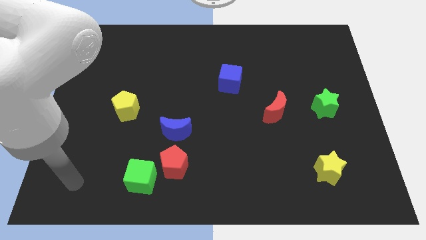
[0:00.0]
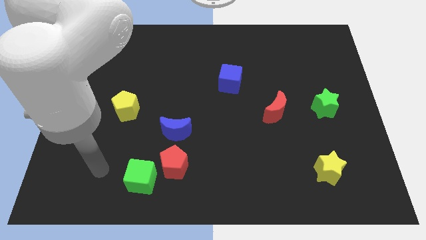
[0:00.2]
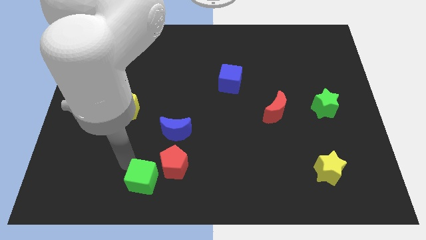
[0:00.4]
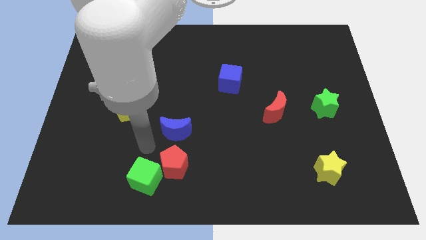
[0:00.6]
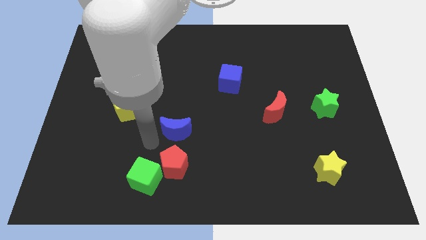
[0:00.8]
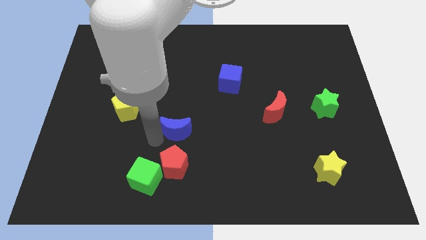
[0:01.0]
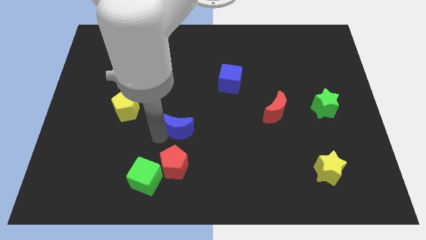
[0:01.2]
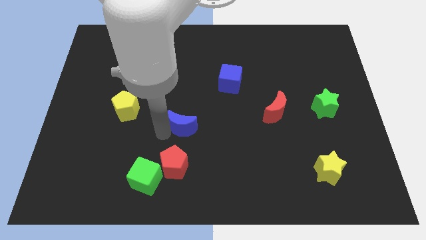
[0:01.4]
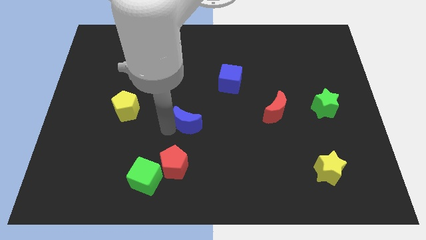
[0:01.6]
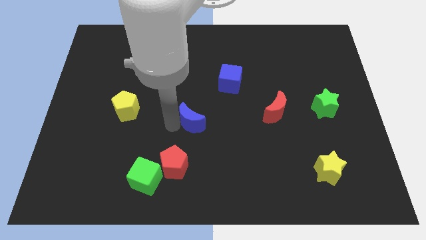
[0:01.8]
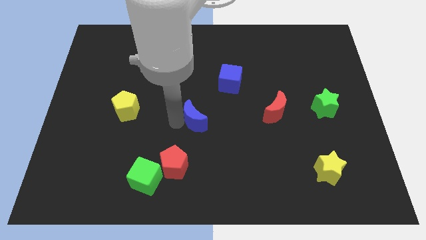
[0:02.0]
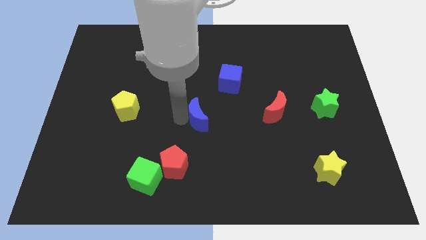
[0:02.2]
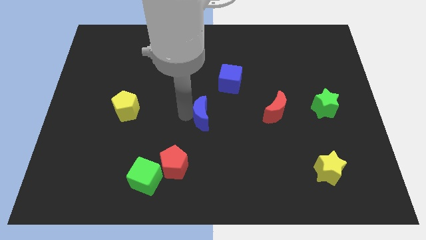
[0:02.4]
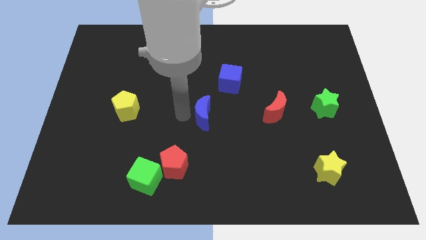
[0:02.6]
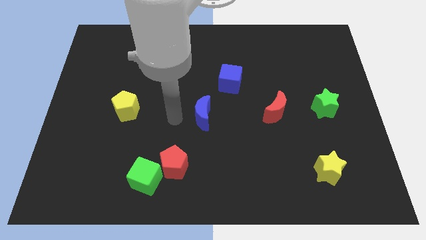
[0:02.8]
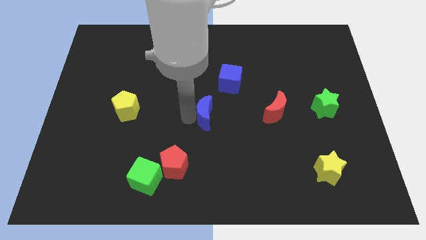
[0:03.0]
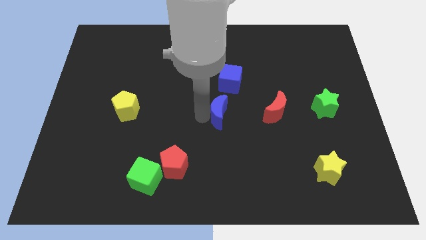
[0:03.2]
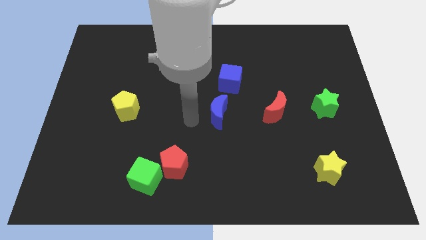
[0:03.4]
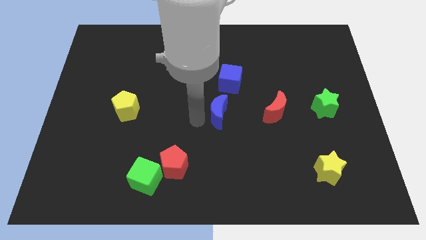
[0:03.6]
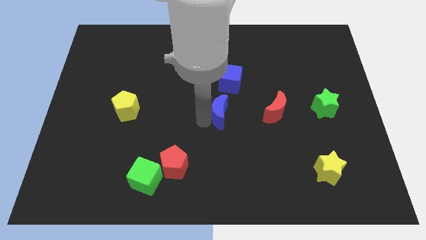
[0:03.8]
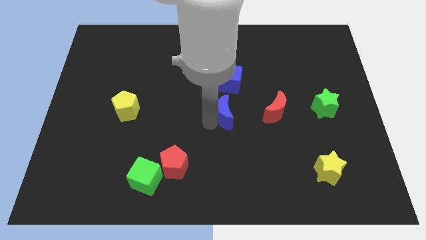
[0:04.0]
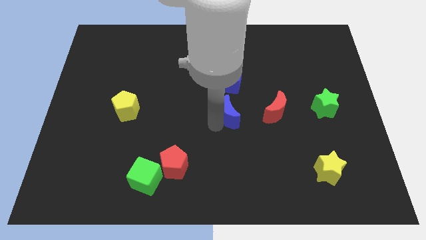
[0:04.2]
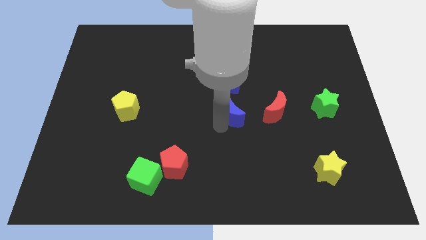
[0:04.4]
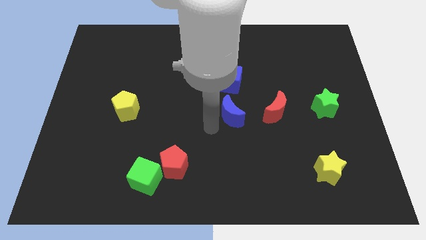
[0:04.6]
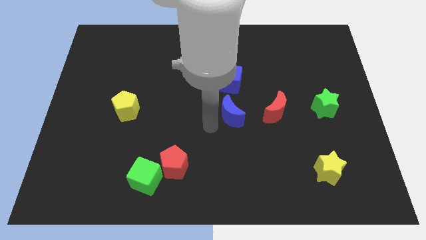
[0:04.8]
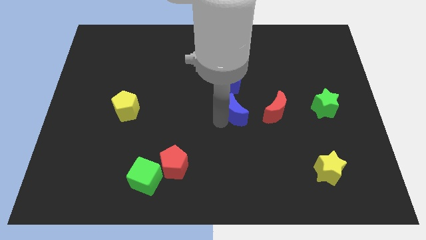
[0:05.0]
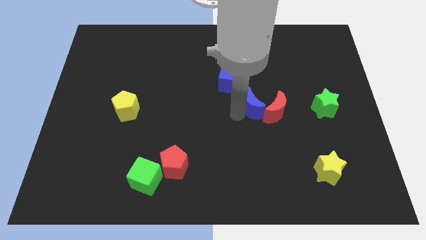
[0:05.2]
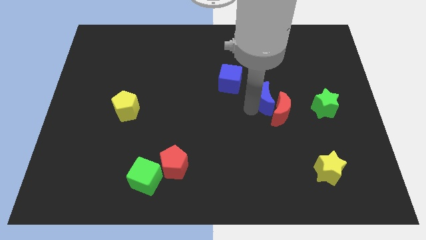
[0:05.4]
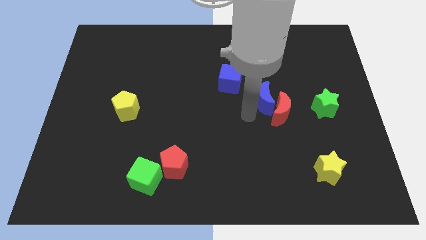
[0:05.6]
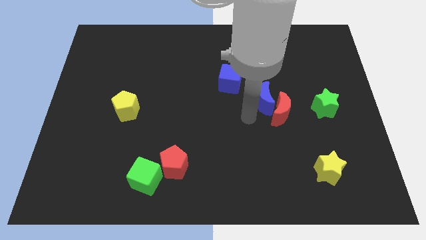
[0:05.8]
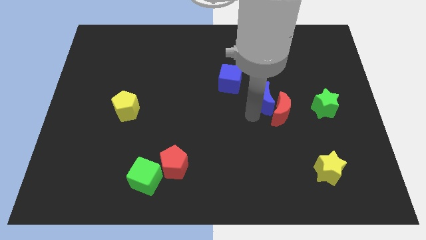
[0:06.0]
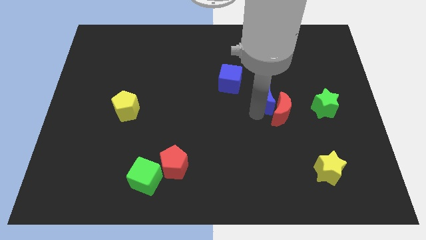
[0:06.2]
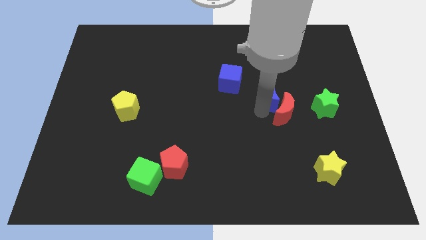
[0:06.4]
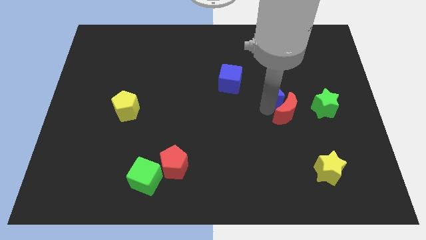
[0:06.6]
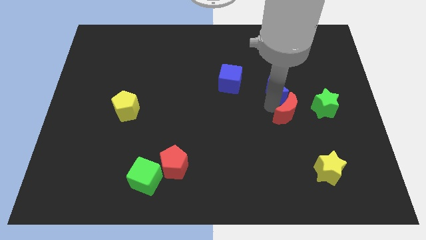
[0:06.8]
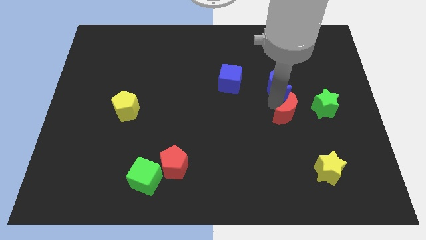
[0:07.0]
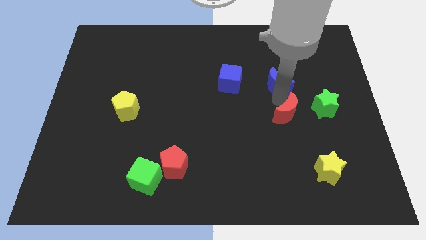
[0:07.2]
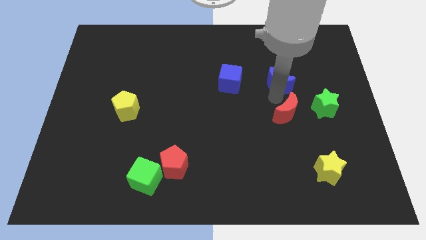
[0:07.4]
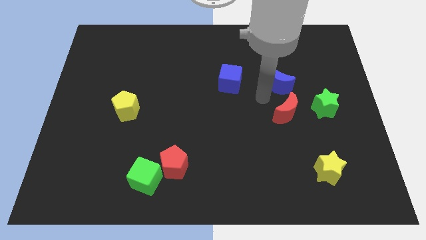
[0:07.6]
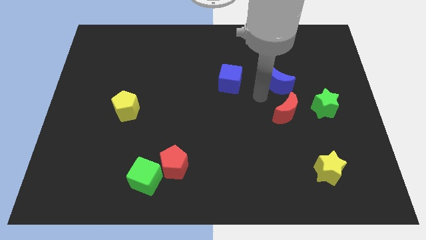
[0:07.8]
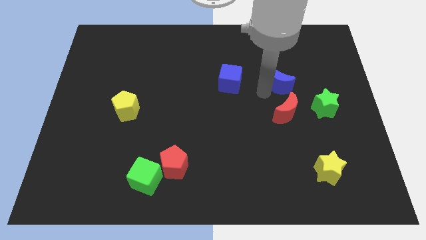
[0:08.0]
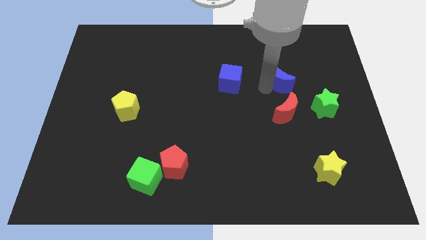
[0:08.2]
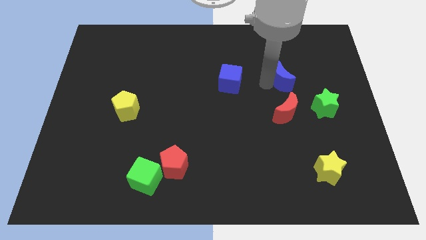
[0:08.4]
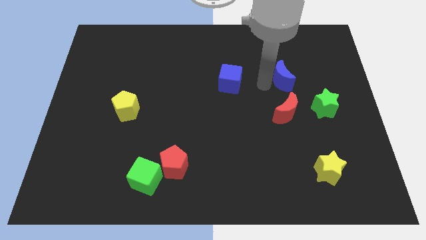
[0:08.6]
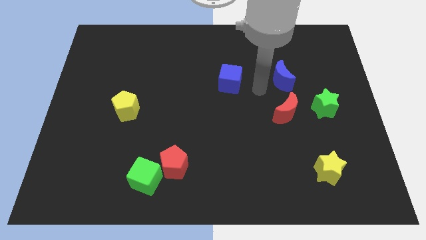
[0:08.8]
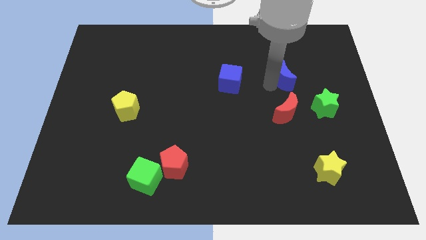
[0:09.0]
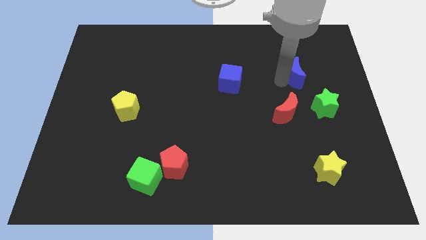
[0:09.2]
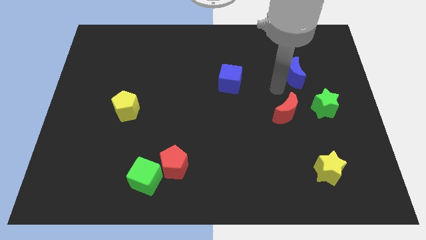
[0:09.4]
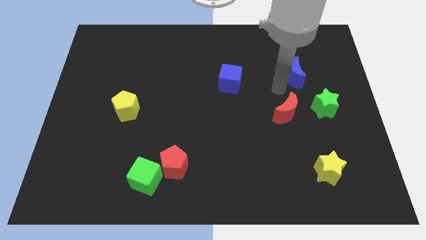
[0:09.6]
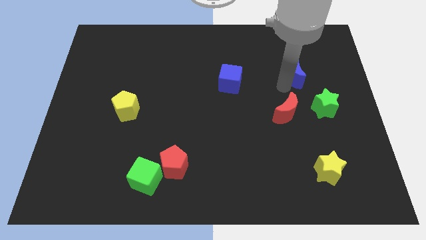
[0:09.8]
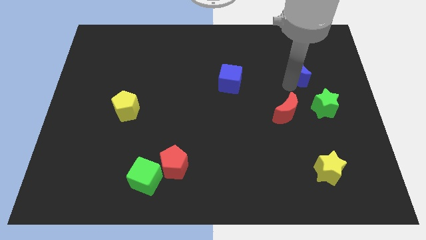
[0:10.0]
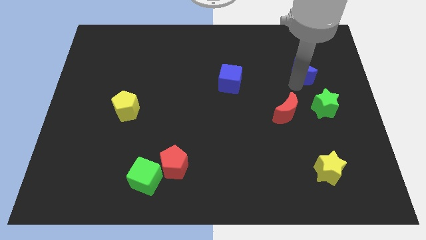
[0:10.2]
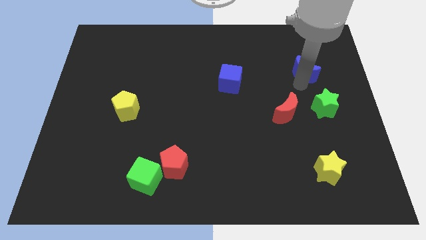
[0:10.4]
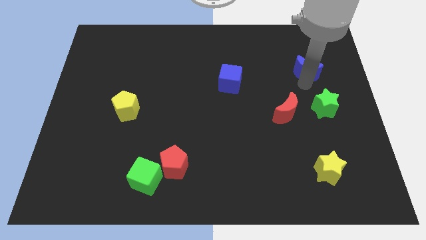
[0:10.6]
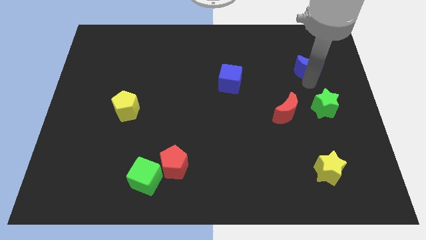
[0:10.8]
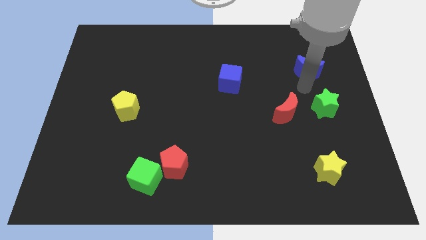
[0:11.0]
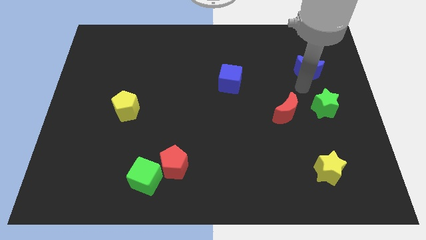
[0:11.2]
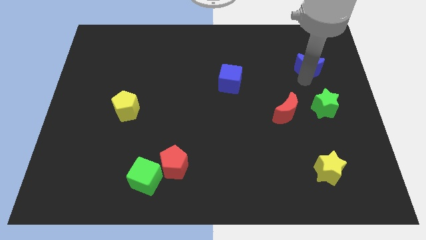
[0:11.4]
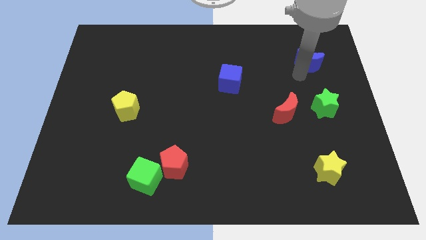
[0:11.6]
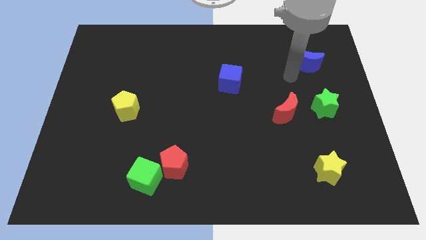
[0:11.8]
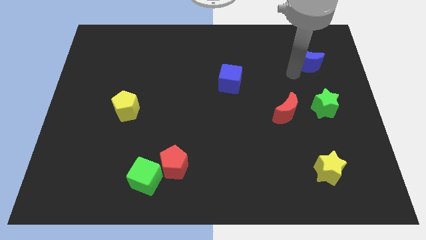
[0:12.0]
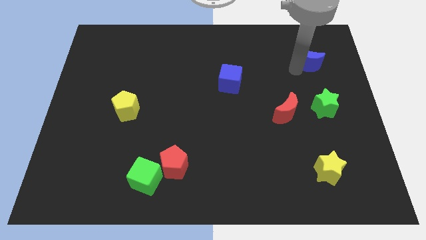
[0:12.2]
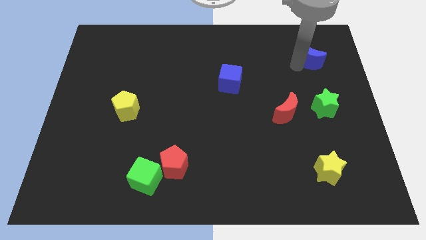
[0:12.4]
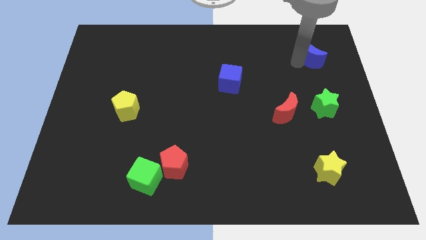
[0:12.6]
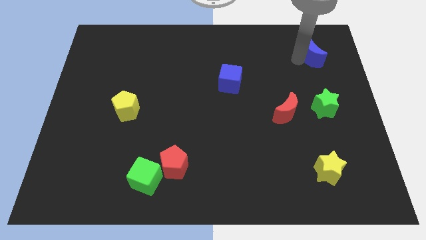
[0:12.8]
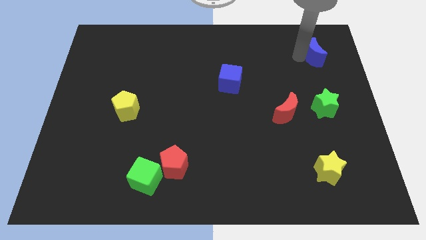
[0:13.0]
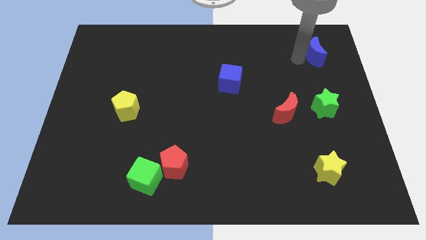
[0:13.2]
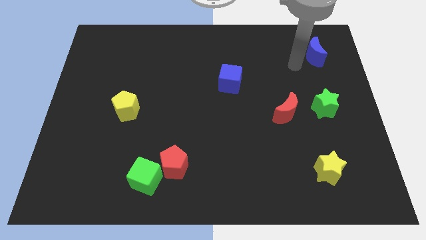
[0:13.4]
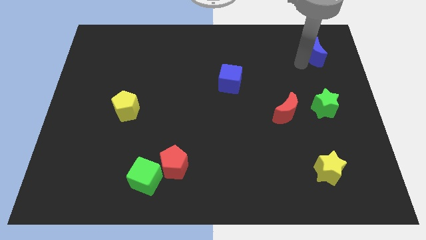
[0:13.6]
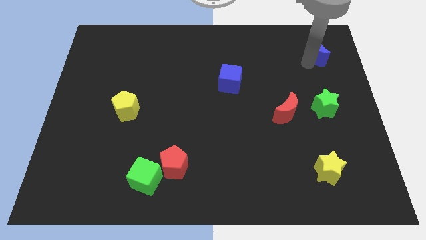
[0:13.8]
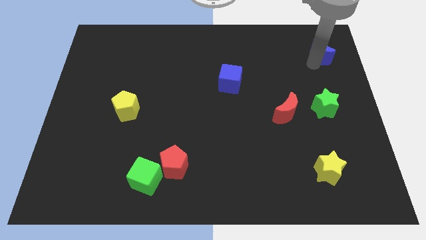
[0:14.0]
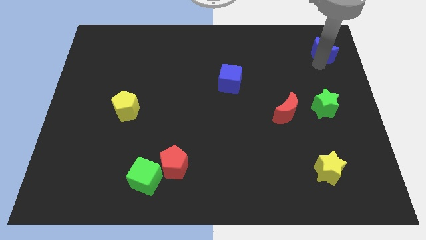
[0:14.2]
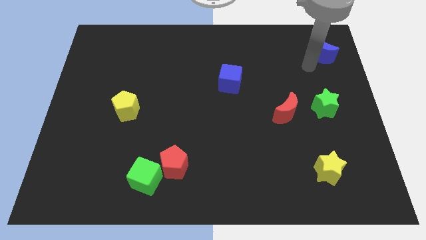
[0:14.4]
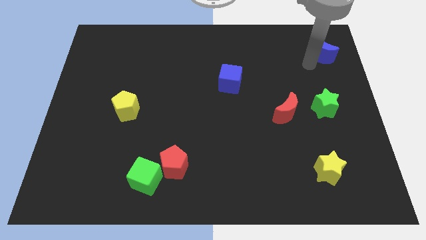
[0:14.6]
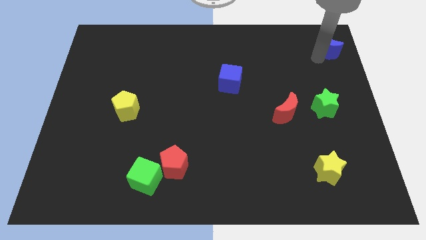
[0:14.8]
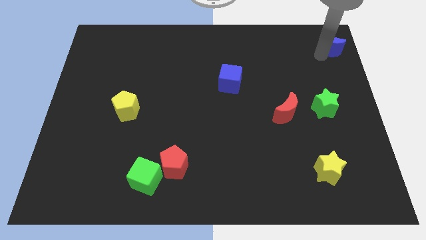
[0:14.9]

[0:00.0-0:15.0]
put the blue moon to the top right
